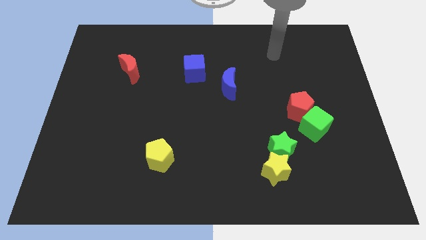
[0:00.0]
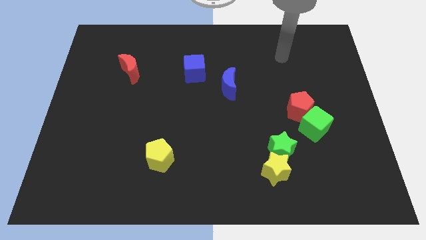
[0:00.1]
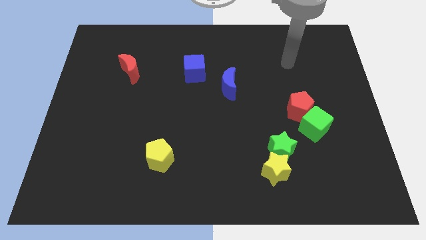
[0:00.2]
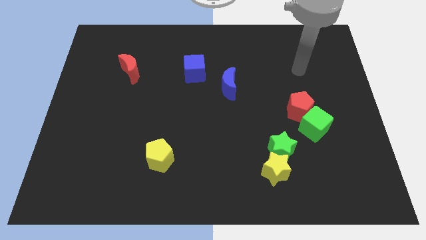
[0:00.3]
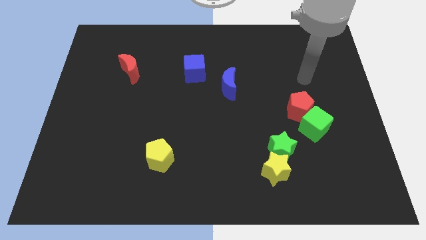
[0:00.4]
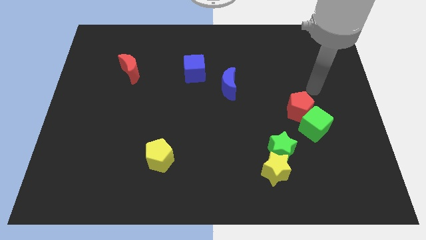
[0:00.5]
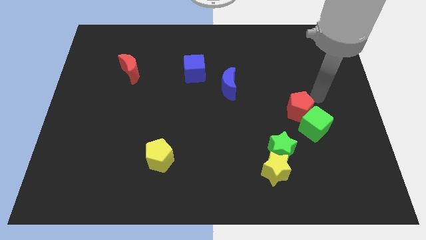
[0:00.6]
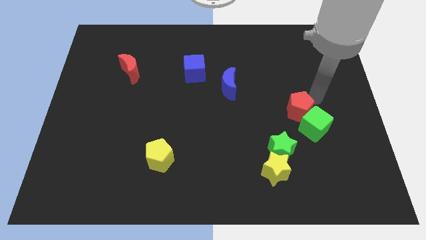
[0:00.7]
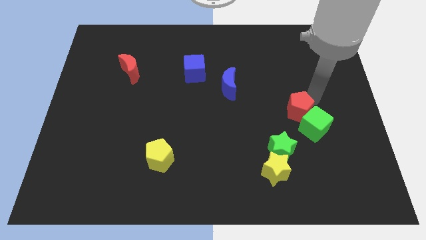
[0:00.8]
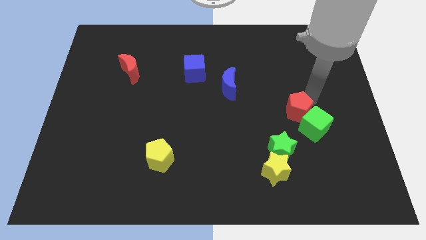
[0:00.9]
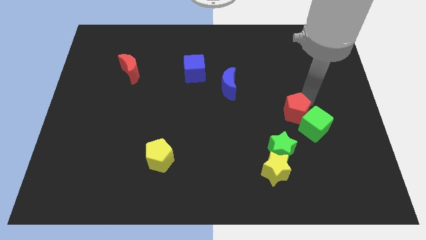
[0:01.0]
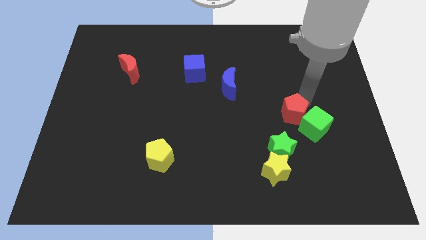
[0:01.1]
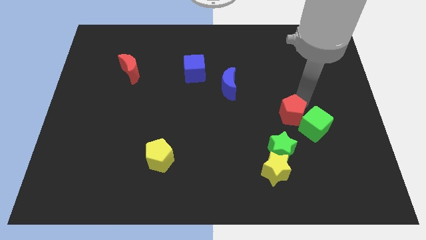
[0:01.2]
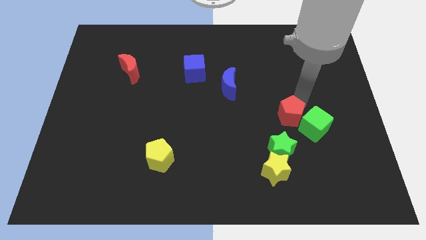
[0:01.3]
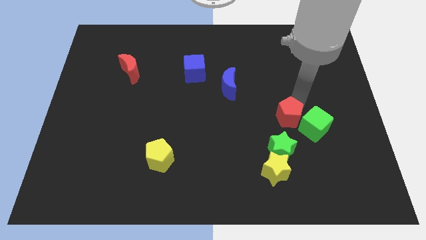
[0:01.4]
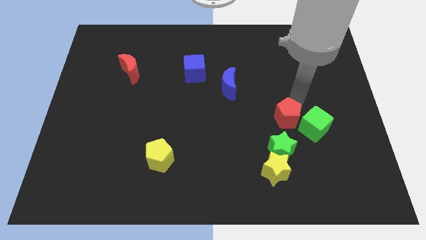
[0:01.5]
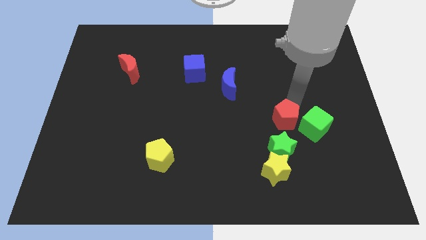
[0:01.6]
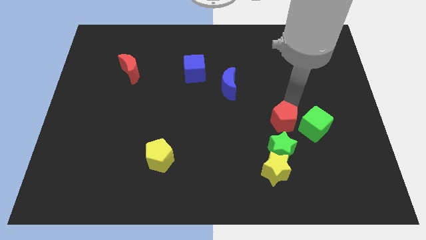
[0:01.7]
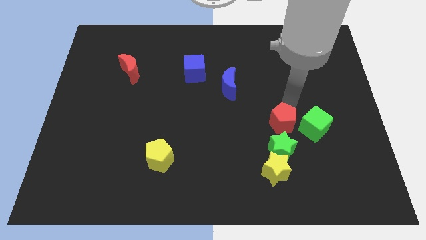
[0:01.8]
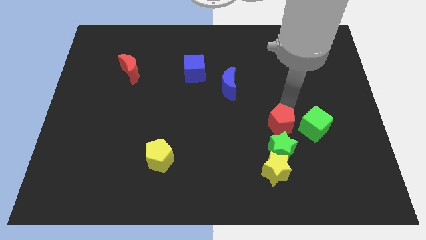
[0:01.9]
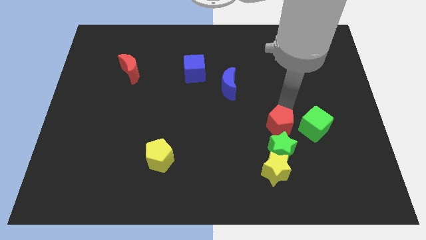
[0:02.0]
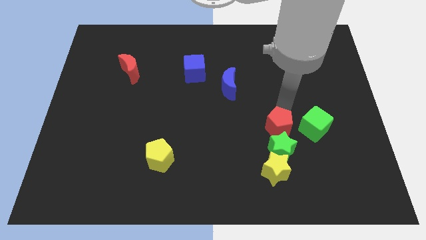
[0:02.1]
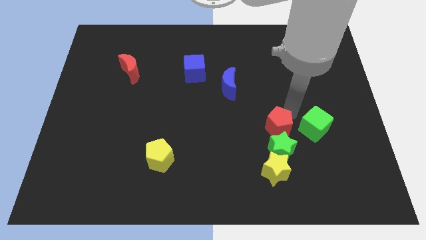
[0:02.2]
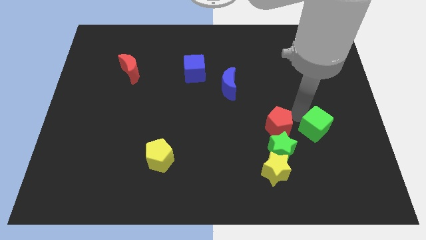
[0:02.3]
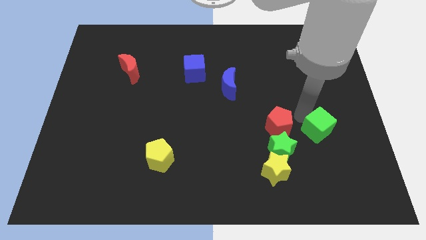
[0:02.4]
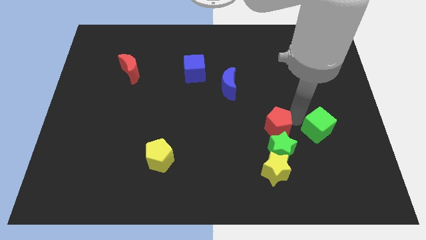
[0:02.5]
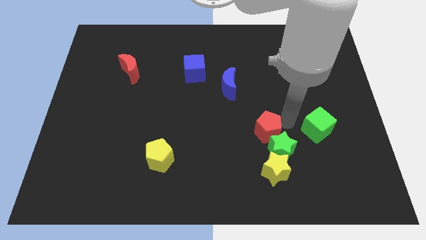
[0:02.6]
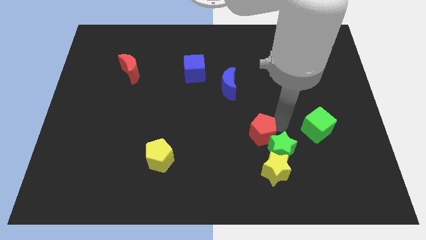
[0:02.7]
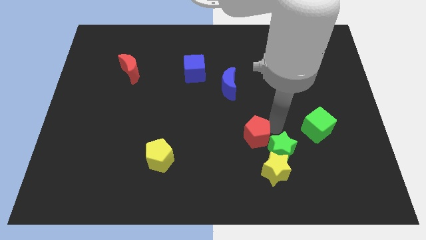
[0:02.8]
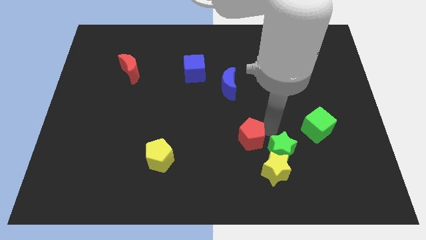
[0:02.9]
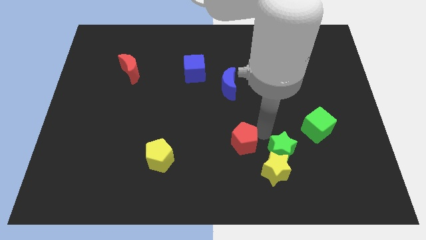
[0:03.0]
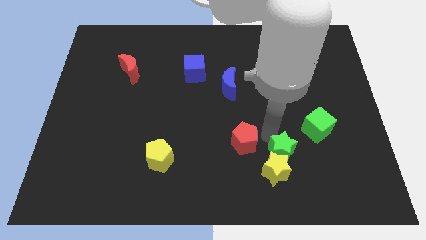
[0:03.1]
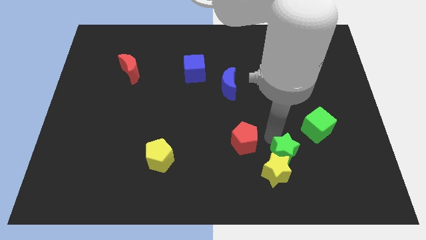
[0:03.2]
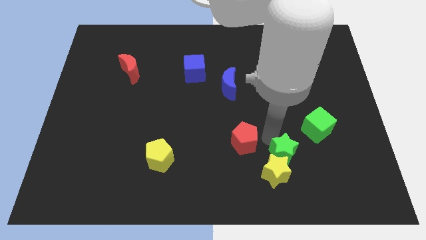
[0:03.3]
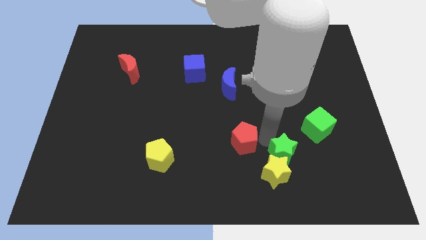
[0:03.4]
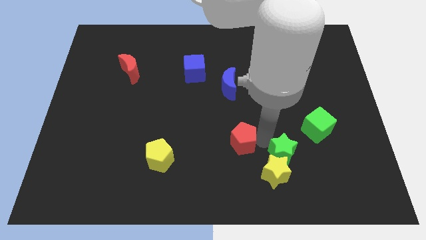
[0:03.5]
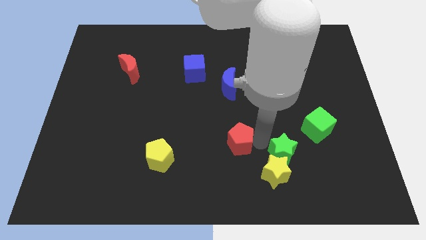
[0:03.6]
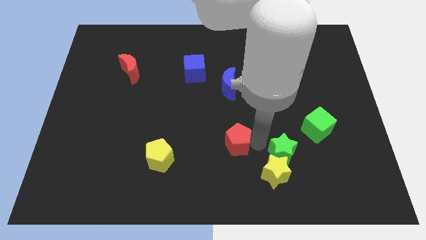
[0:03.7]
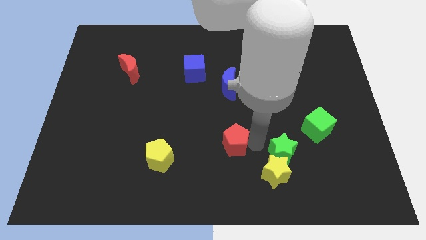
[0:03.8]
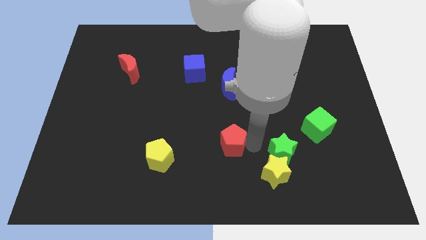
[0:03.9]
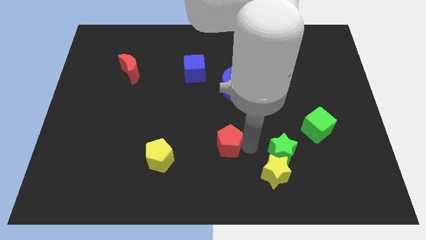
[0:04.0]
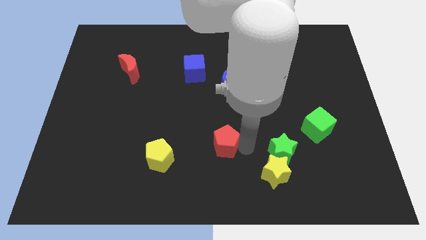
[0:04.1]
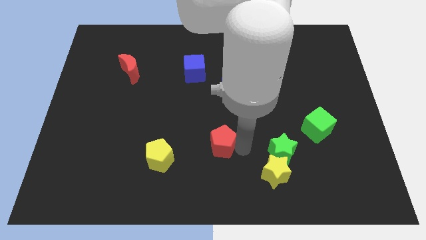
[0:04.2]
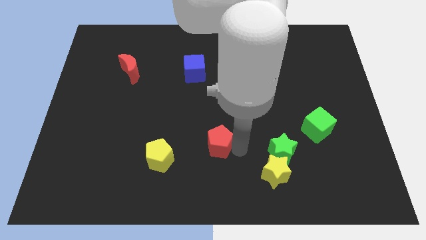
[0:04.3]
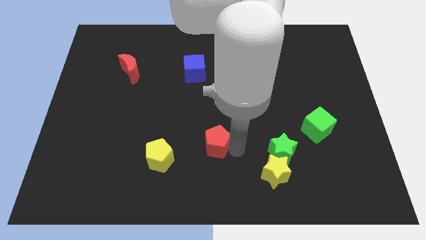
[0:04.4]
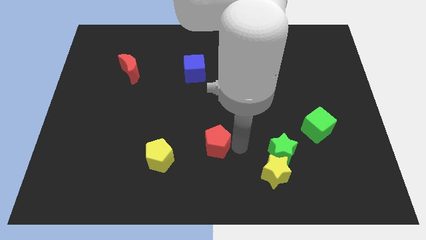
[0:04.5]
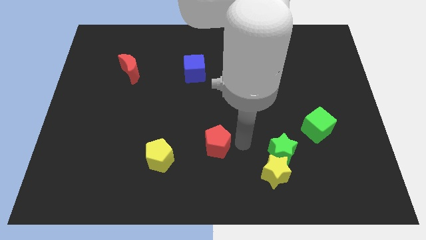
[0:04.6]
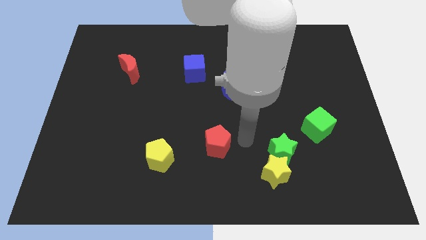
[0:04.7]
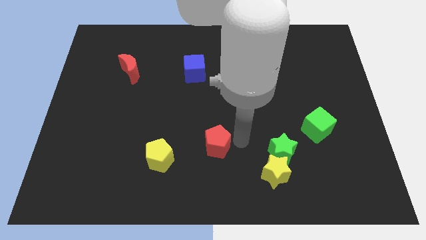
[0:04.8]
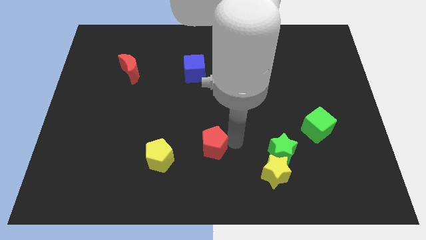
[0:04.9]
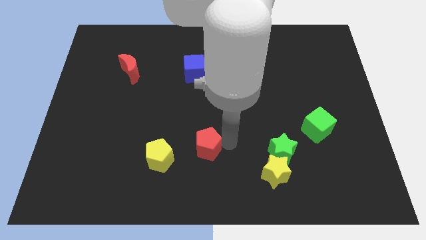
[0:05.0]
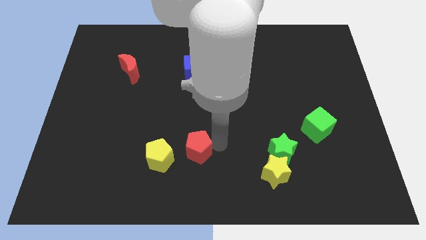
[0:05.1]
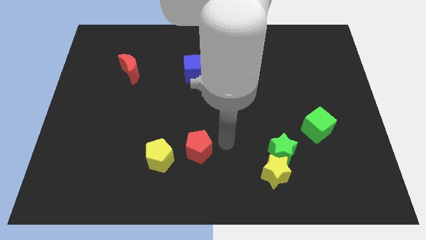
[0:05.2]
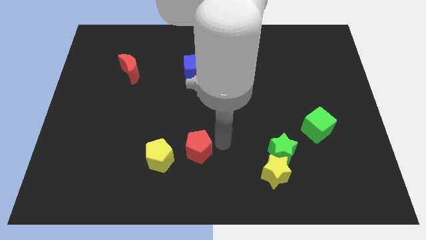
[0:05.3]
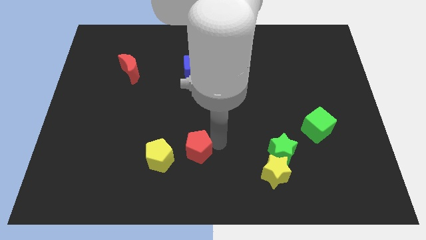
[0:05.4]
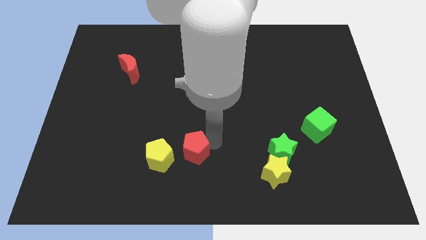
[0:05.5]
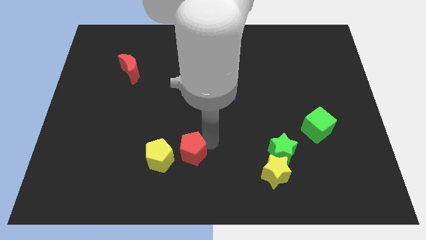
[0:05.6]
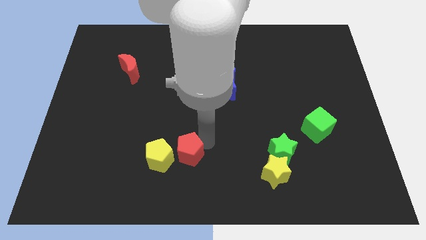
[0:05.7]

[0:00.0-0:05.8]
push the red pentagon next to the yellow pentagon
